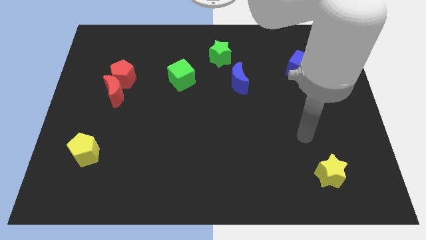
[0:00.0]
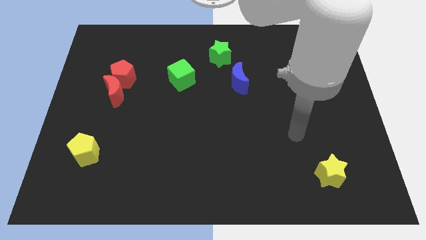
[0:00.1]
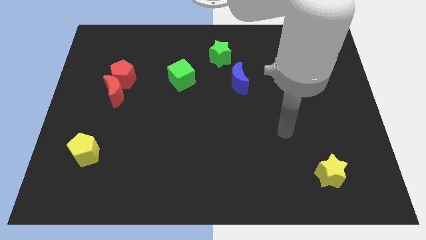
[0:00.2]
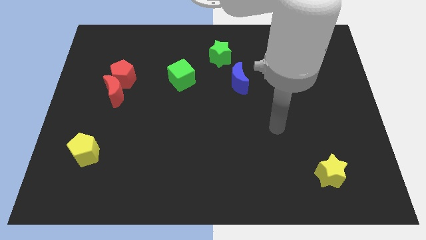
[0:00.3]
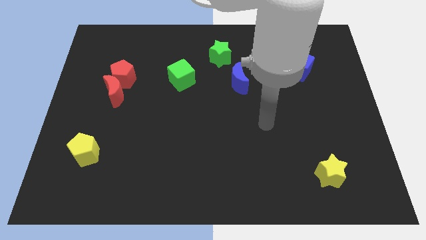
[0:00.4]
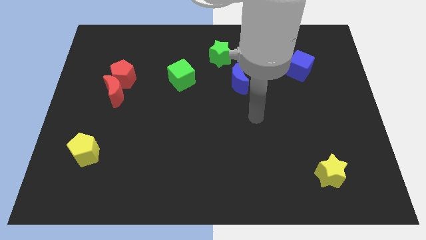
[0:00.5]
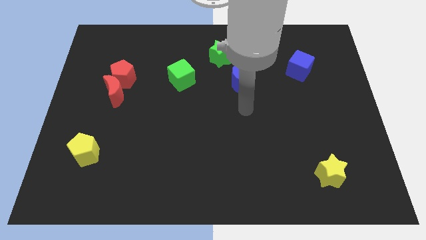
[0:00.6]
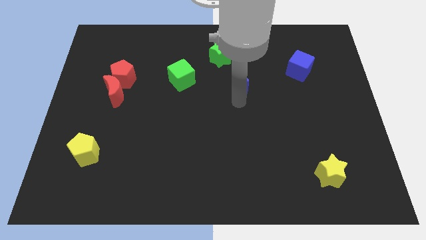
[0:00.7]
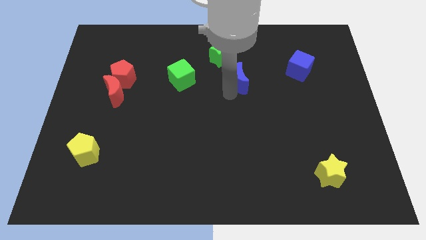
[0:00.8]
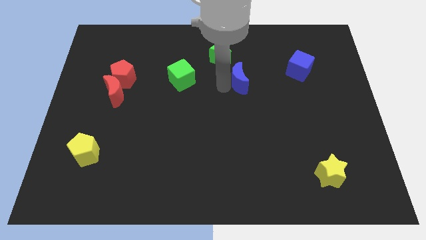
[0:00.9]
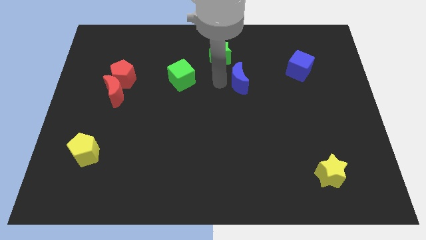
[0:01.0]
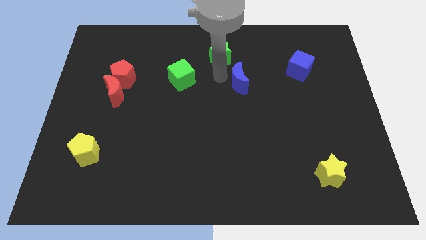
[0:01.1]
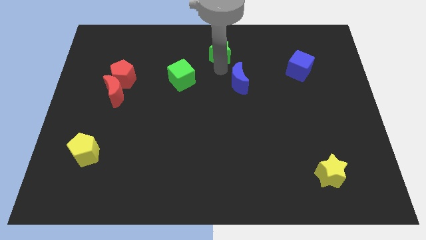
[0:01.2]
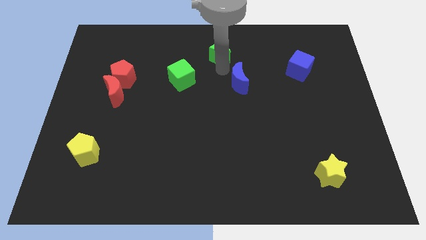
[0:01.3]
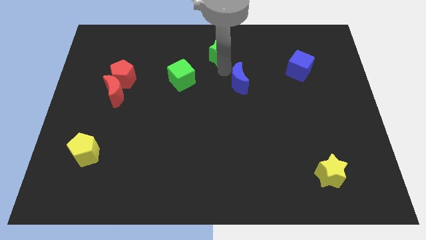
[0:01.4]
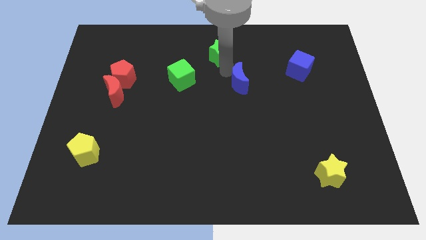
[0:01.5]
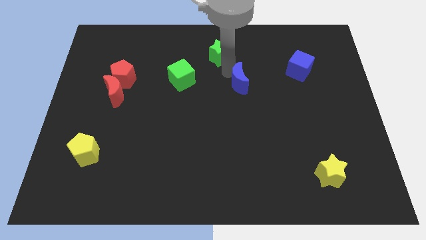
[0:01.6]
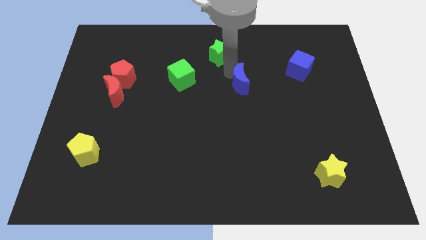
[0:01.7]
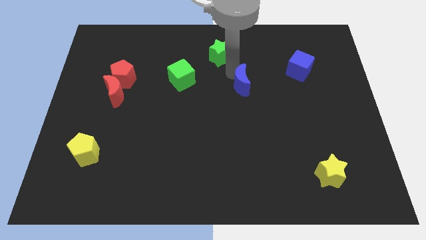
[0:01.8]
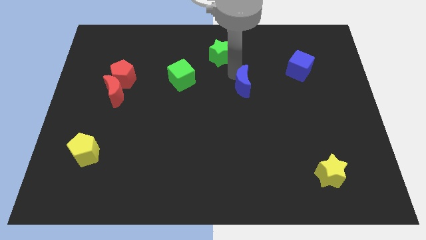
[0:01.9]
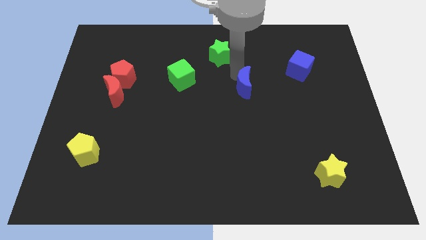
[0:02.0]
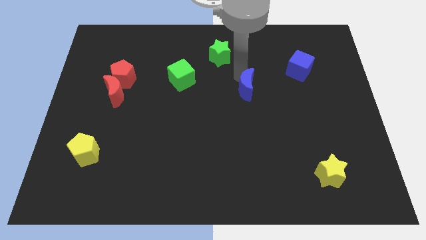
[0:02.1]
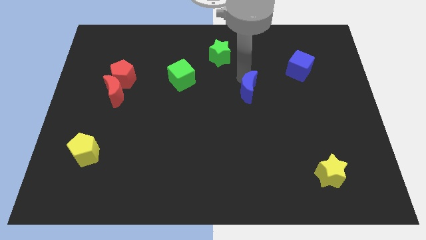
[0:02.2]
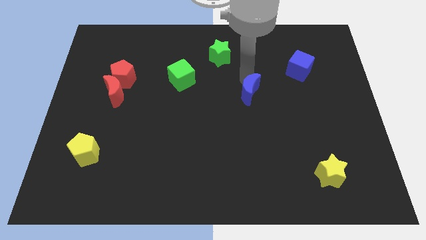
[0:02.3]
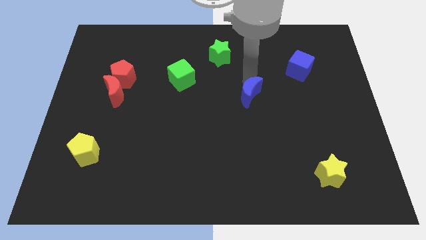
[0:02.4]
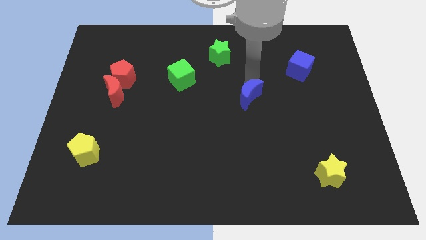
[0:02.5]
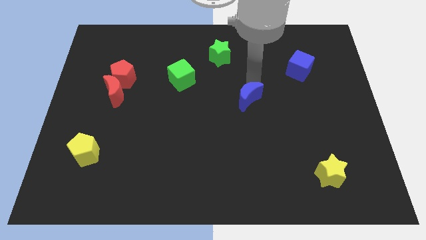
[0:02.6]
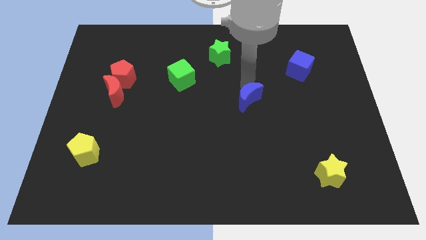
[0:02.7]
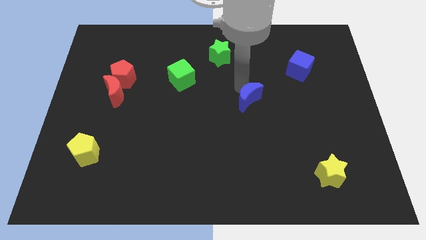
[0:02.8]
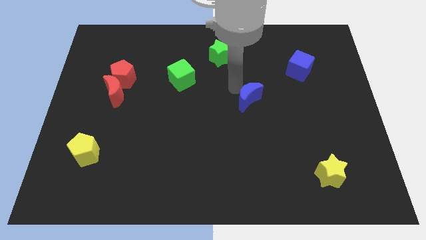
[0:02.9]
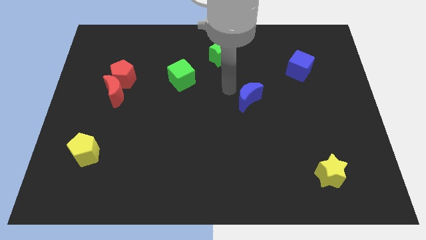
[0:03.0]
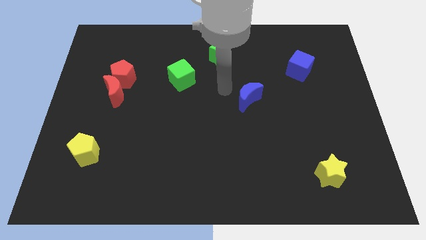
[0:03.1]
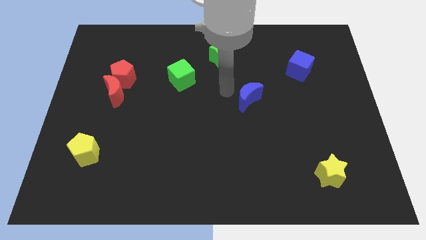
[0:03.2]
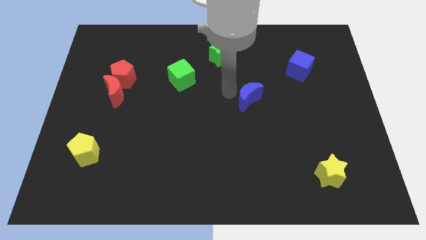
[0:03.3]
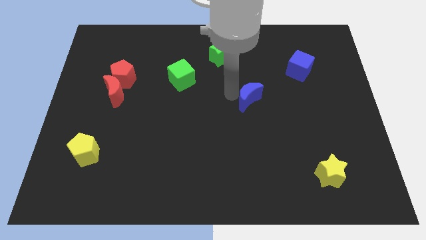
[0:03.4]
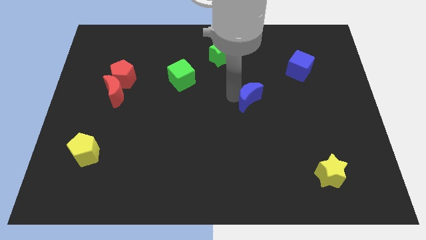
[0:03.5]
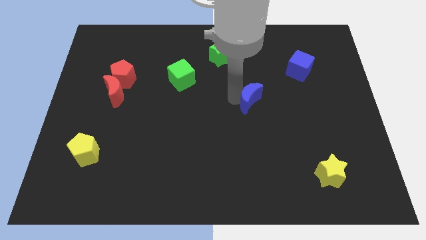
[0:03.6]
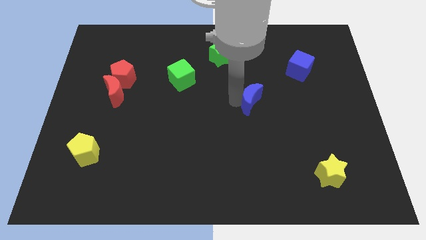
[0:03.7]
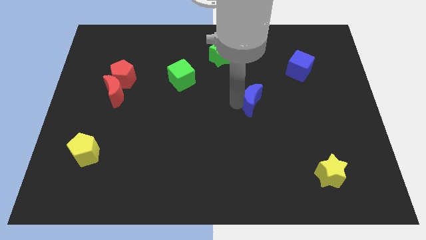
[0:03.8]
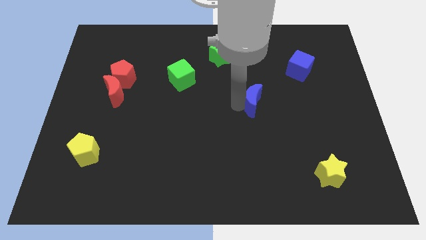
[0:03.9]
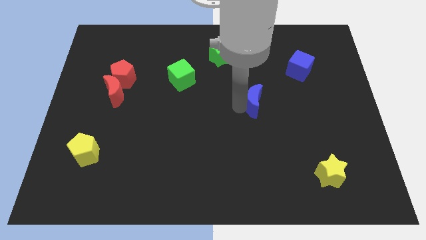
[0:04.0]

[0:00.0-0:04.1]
push the blue moon down and right diagonally a bit

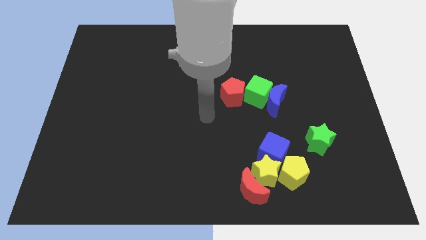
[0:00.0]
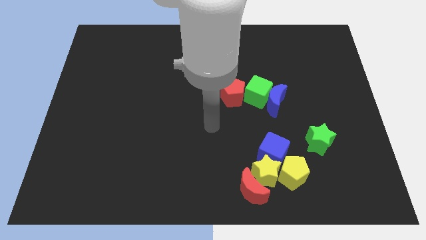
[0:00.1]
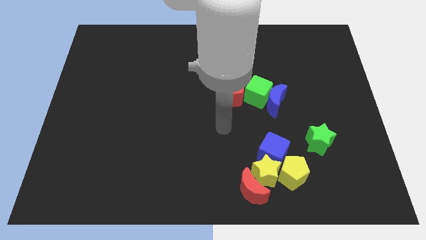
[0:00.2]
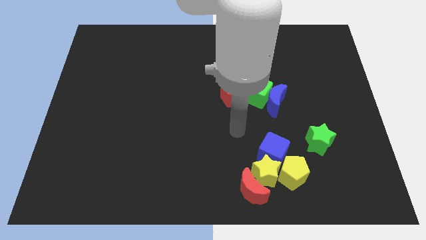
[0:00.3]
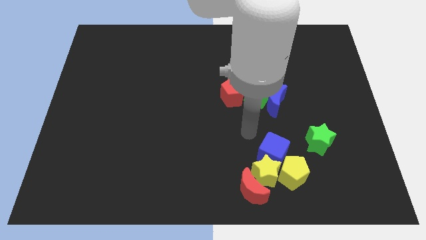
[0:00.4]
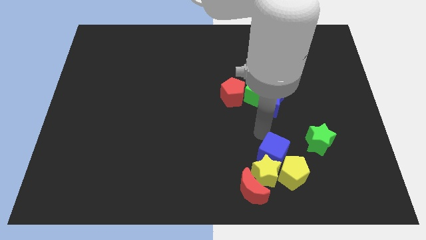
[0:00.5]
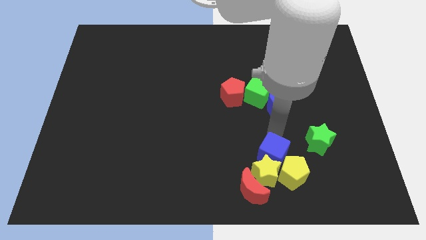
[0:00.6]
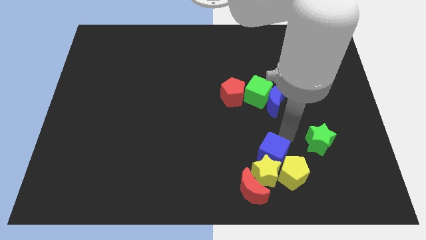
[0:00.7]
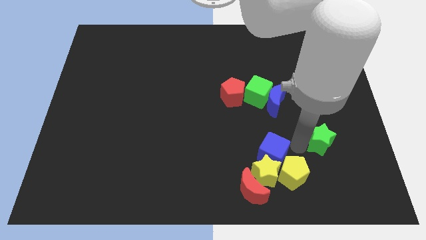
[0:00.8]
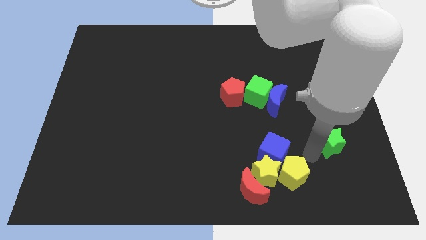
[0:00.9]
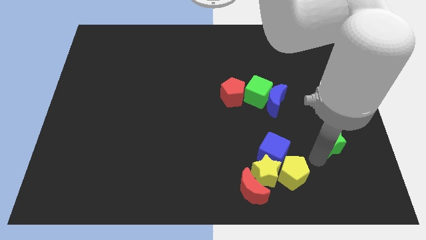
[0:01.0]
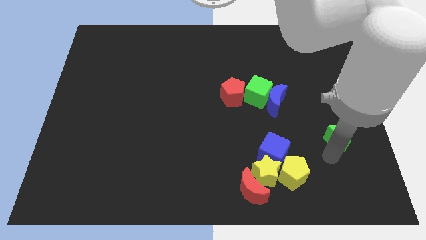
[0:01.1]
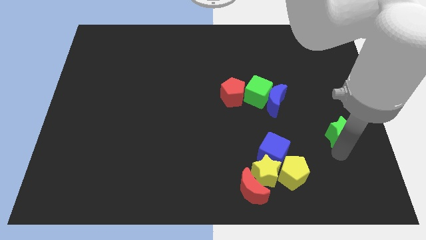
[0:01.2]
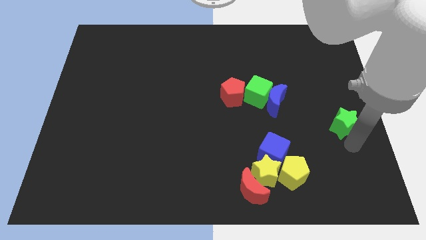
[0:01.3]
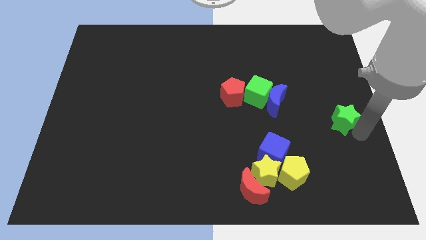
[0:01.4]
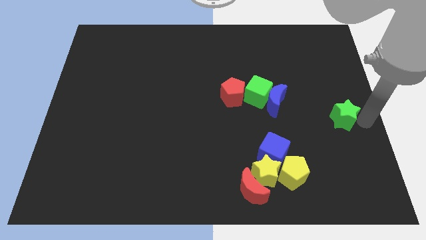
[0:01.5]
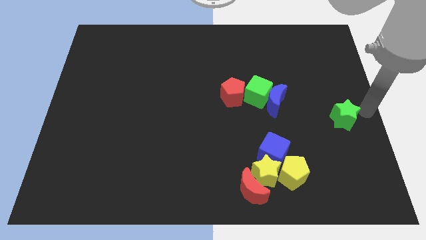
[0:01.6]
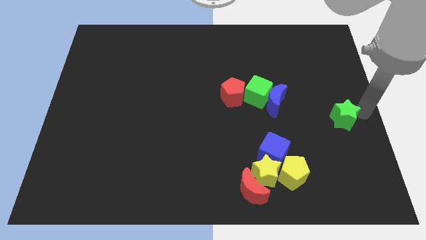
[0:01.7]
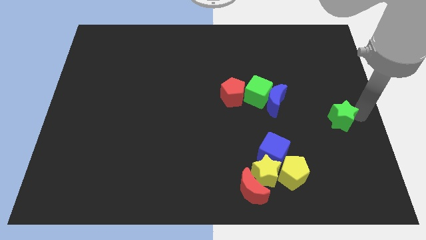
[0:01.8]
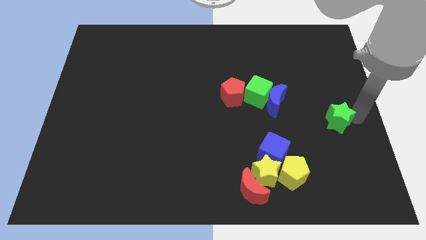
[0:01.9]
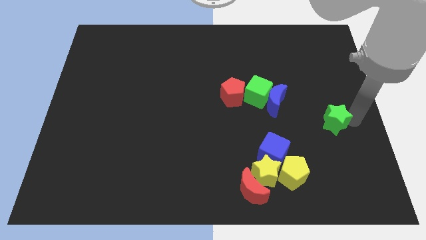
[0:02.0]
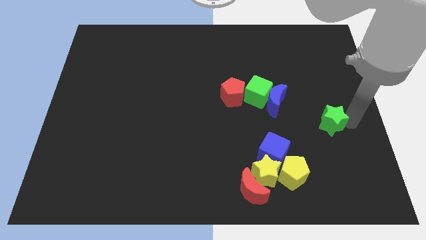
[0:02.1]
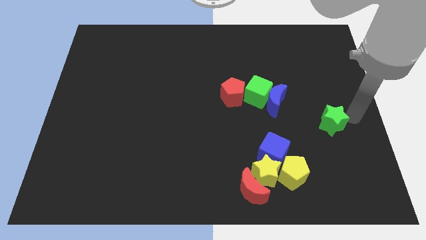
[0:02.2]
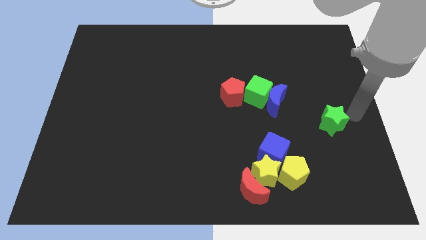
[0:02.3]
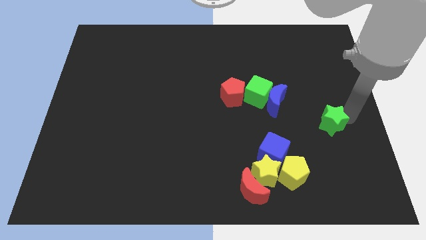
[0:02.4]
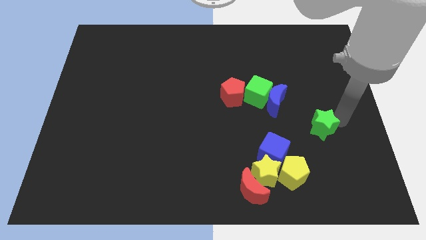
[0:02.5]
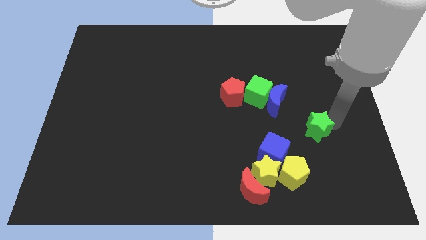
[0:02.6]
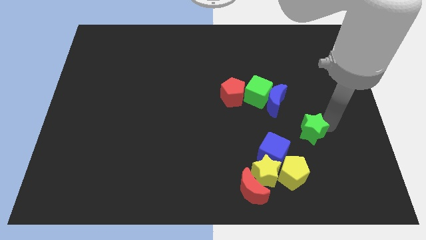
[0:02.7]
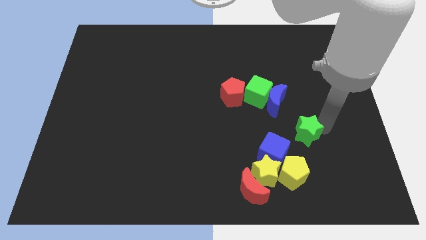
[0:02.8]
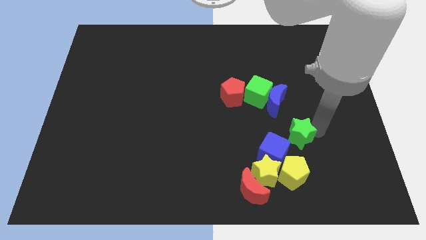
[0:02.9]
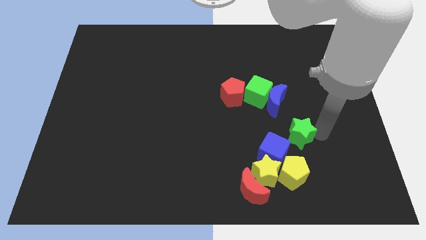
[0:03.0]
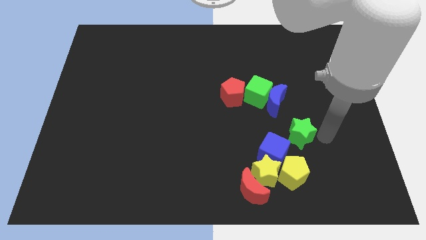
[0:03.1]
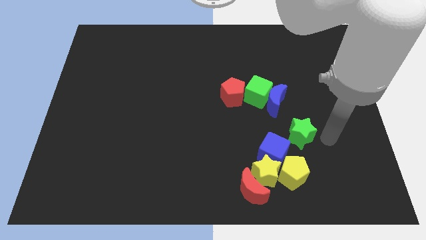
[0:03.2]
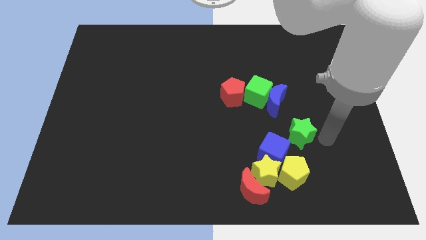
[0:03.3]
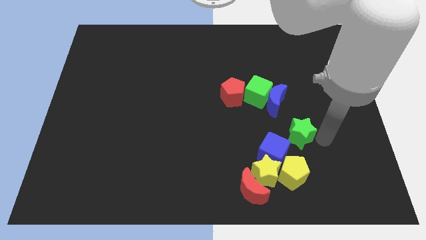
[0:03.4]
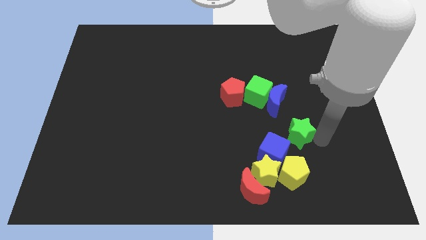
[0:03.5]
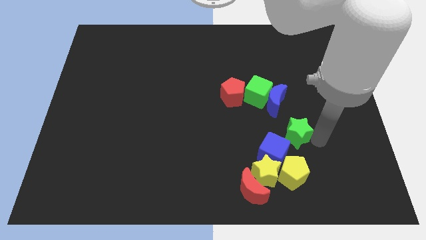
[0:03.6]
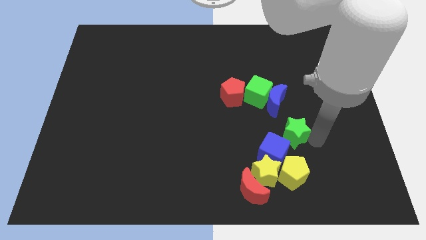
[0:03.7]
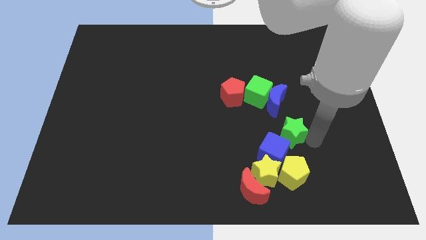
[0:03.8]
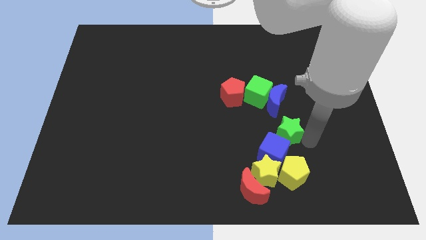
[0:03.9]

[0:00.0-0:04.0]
push the green star a little to the left

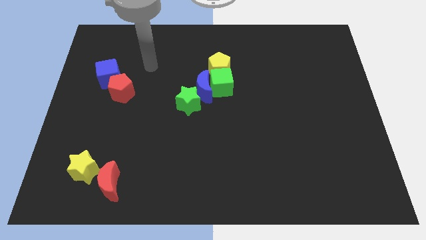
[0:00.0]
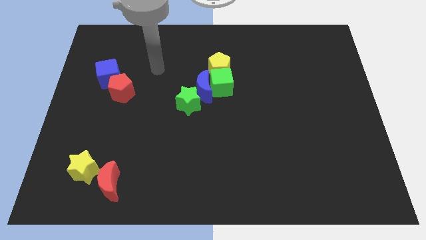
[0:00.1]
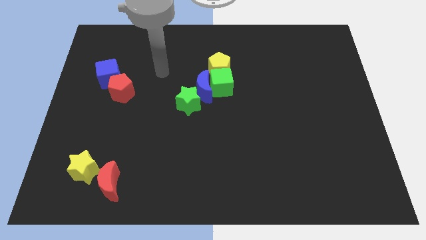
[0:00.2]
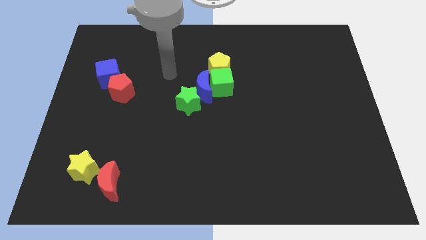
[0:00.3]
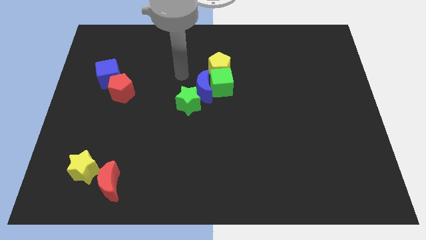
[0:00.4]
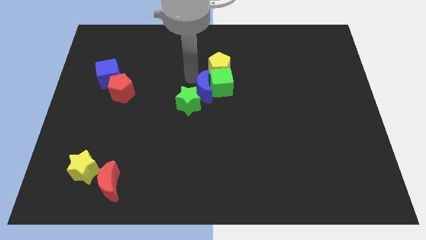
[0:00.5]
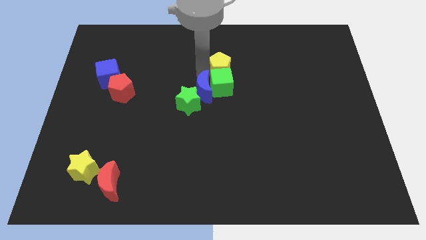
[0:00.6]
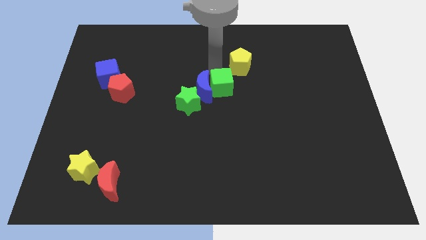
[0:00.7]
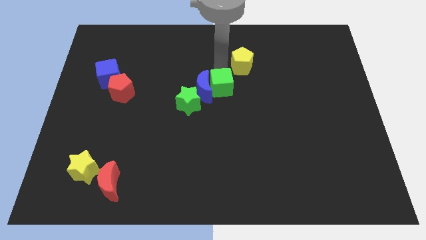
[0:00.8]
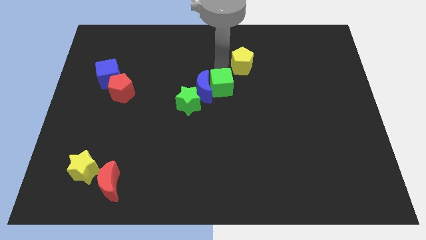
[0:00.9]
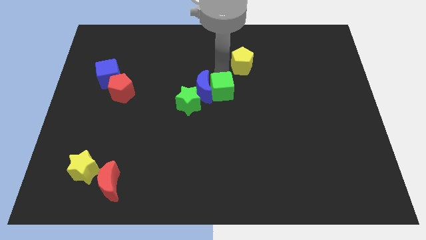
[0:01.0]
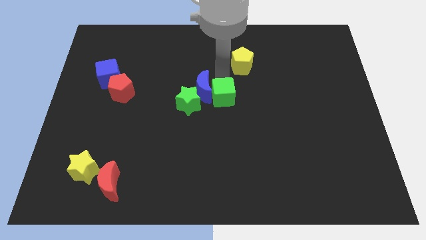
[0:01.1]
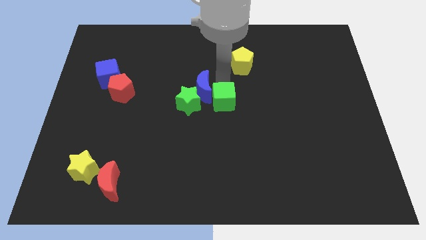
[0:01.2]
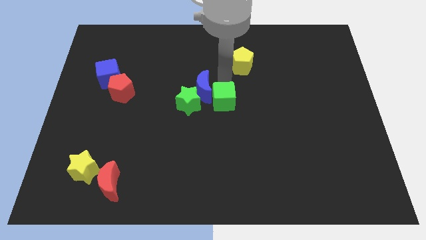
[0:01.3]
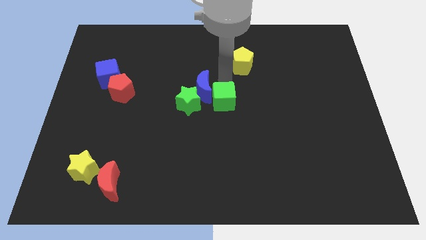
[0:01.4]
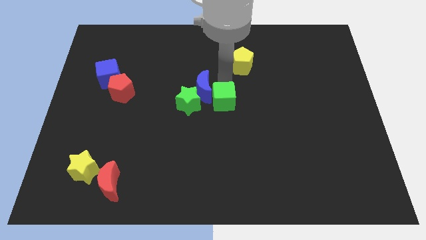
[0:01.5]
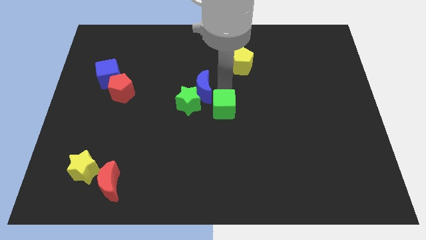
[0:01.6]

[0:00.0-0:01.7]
push the green cube downwards a little
